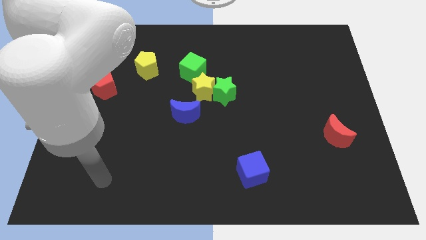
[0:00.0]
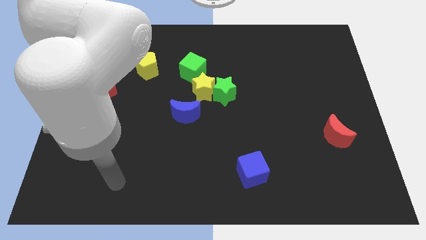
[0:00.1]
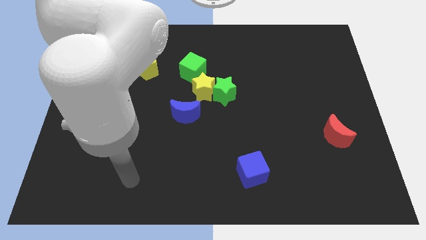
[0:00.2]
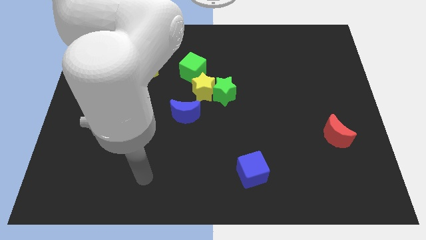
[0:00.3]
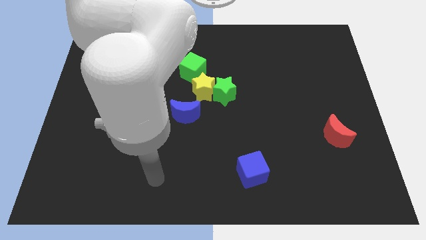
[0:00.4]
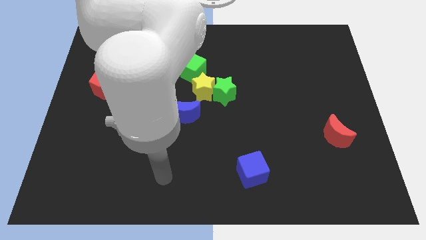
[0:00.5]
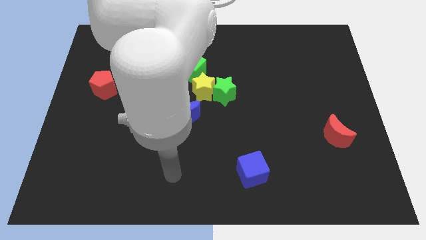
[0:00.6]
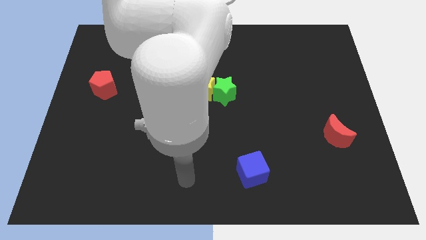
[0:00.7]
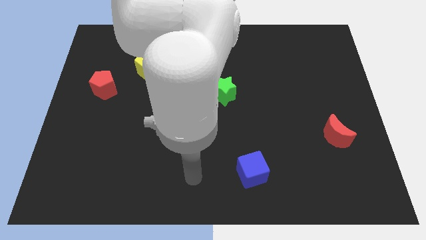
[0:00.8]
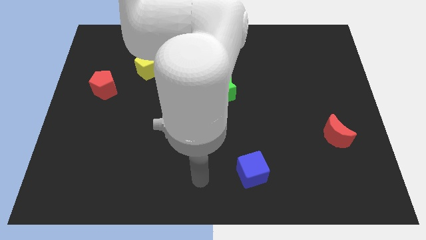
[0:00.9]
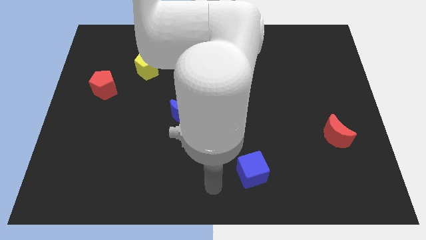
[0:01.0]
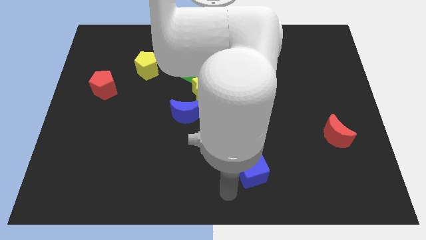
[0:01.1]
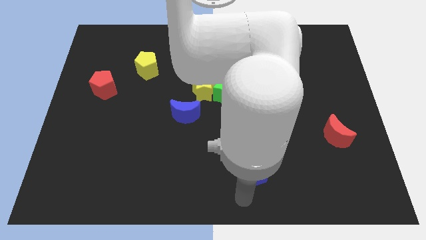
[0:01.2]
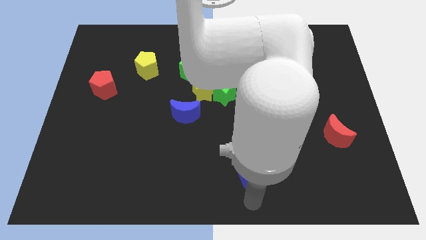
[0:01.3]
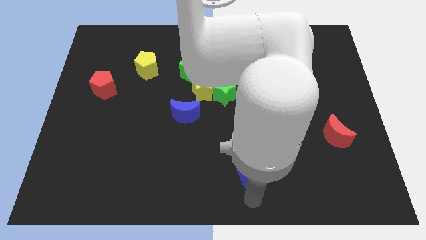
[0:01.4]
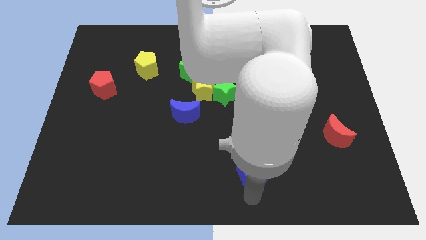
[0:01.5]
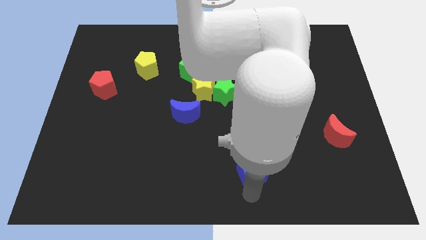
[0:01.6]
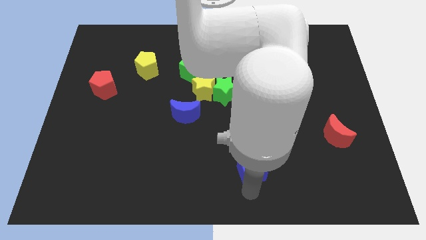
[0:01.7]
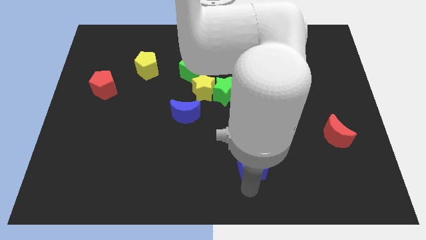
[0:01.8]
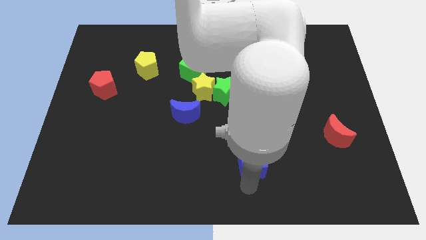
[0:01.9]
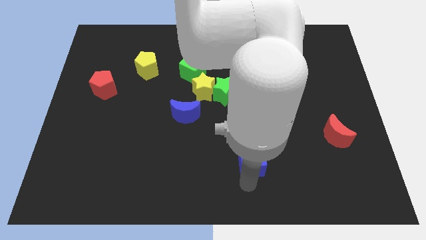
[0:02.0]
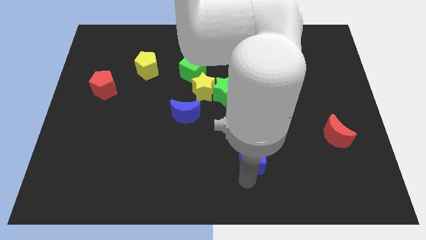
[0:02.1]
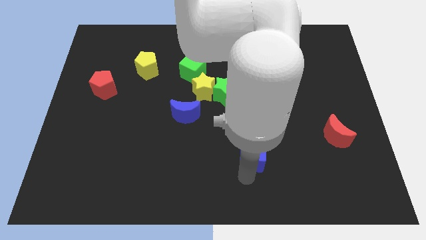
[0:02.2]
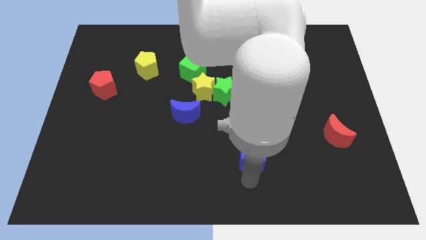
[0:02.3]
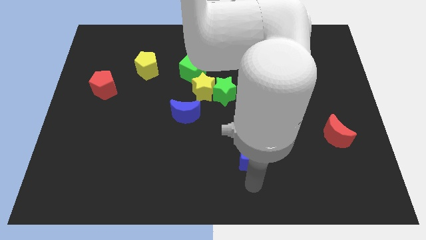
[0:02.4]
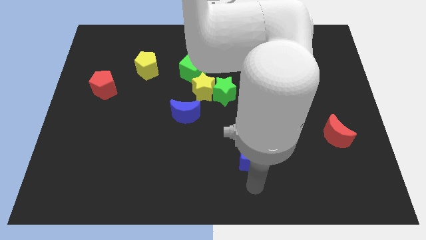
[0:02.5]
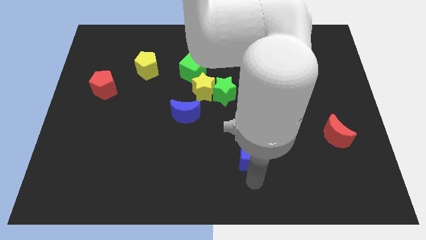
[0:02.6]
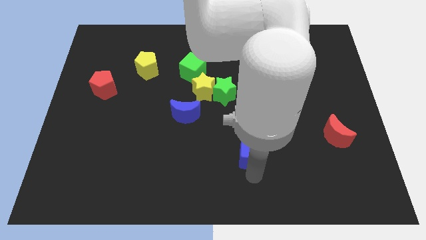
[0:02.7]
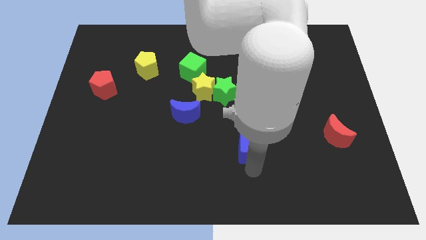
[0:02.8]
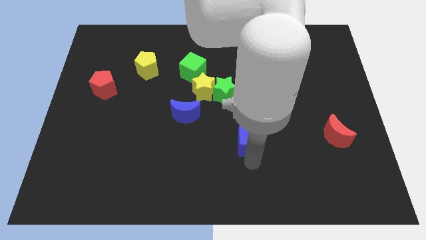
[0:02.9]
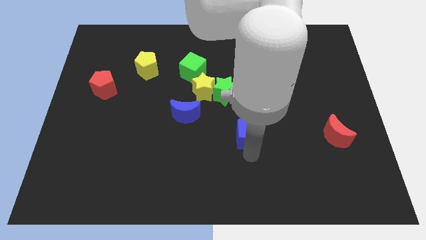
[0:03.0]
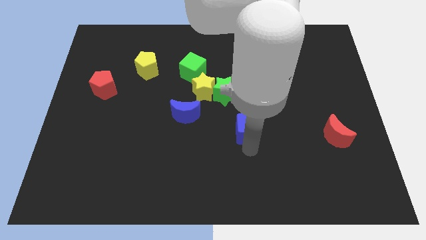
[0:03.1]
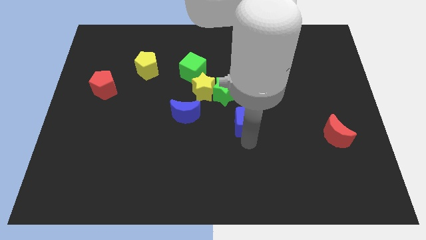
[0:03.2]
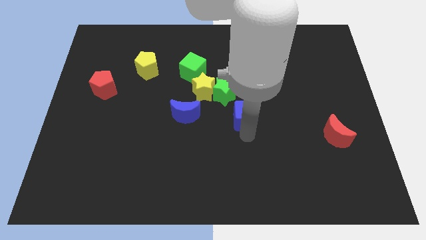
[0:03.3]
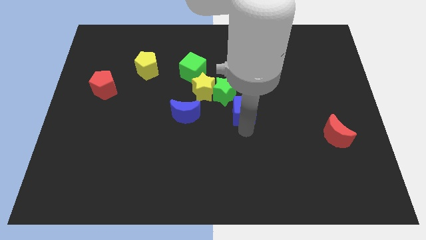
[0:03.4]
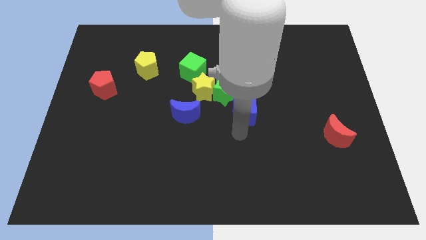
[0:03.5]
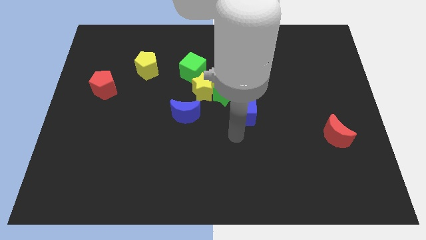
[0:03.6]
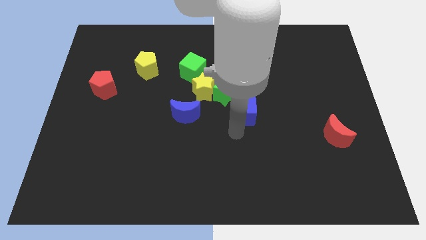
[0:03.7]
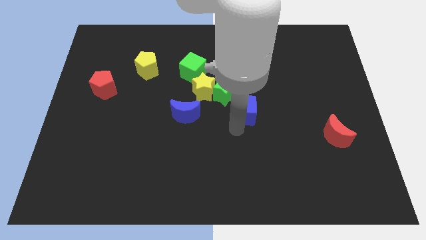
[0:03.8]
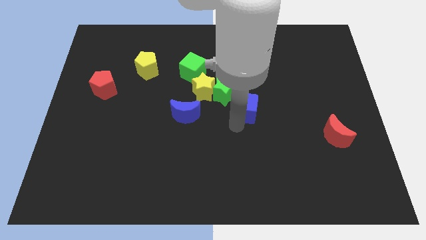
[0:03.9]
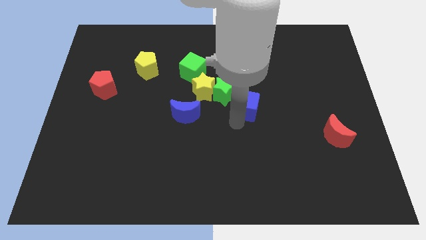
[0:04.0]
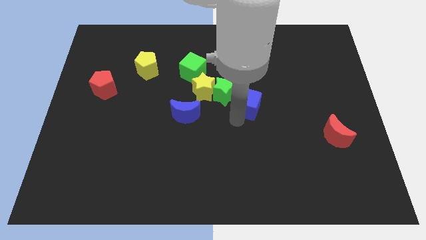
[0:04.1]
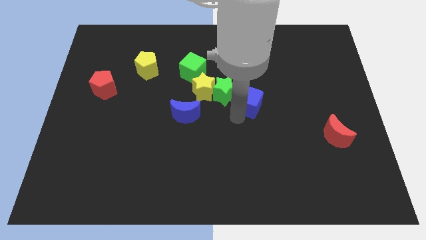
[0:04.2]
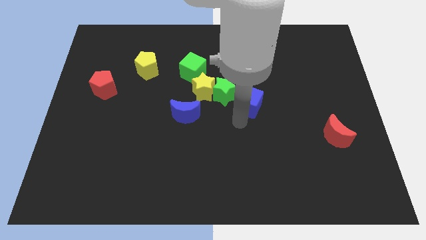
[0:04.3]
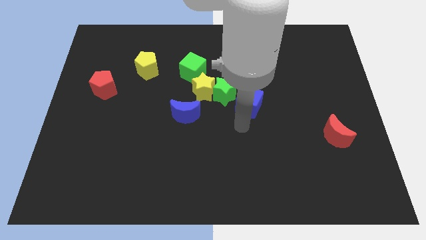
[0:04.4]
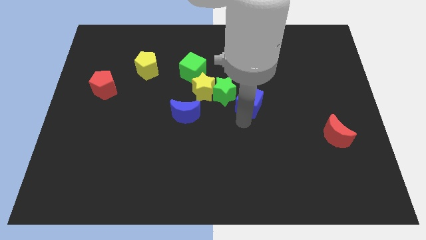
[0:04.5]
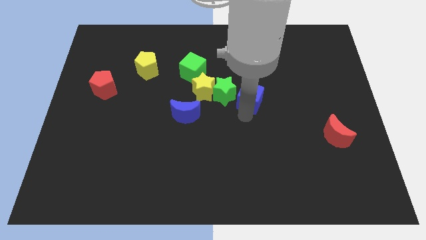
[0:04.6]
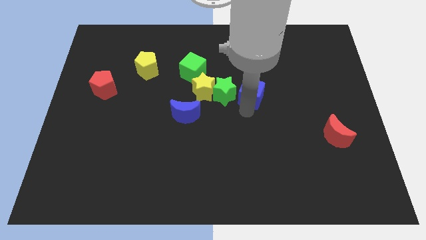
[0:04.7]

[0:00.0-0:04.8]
slide the blue cube upwards

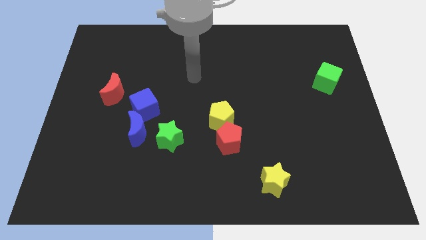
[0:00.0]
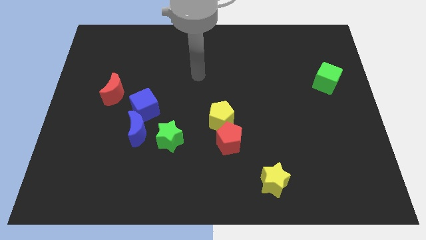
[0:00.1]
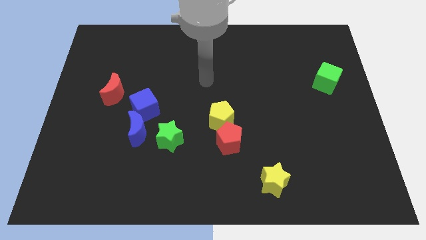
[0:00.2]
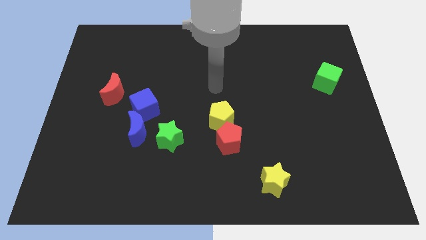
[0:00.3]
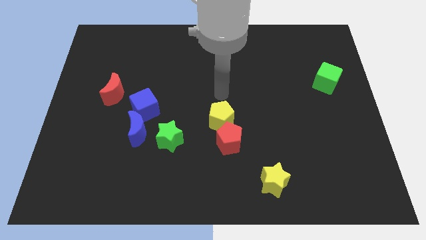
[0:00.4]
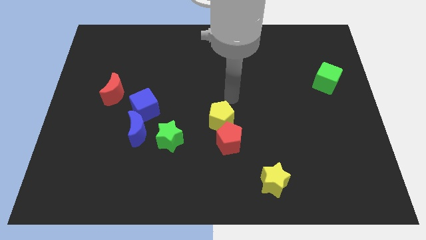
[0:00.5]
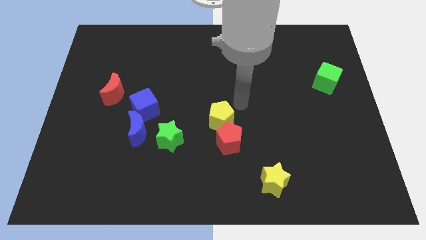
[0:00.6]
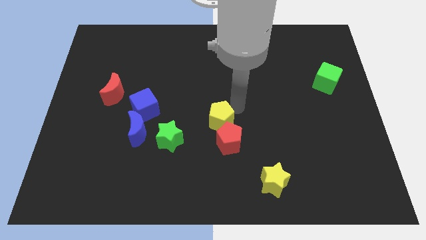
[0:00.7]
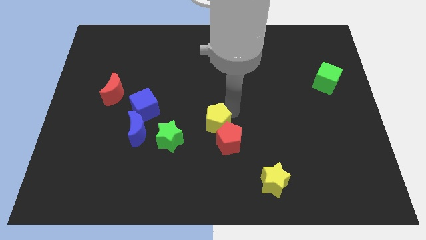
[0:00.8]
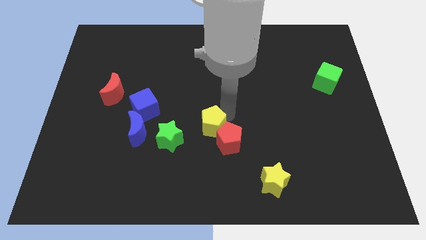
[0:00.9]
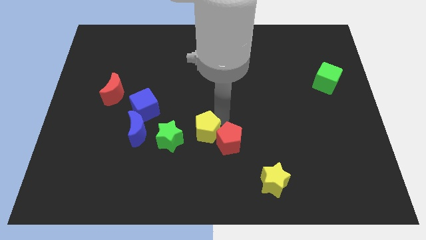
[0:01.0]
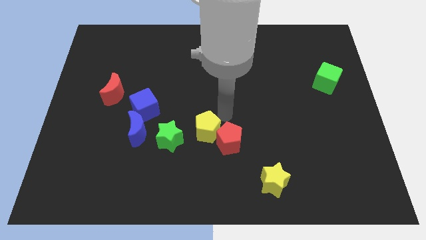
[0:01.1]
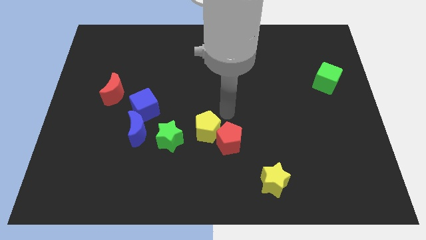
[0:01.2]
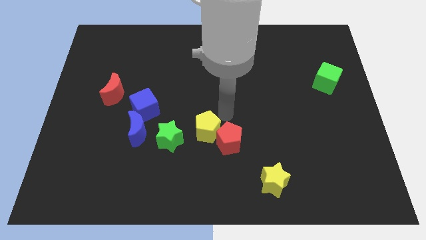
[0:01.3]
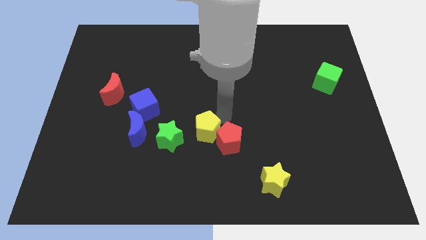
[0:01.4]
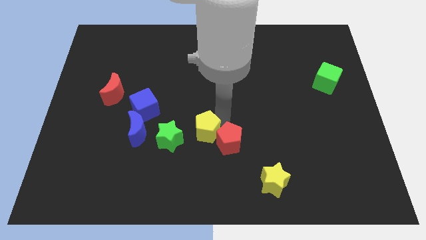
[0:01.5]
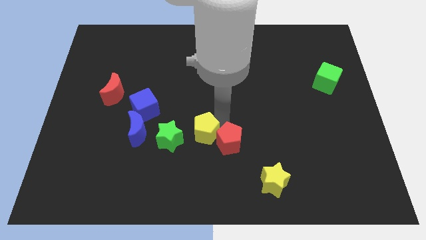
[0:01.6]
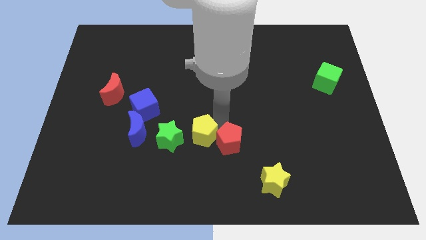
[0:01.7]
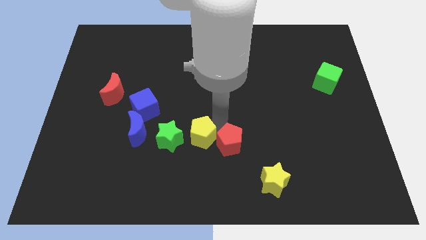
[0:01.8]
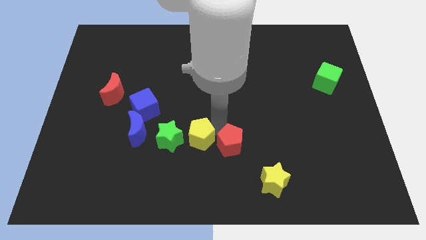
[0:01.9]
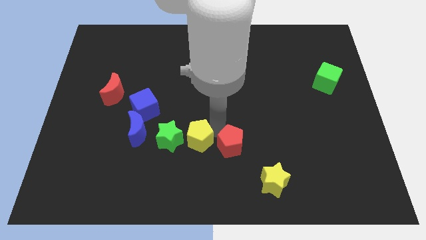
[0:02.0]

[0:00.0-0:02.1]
slide the yellow pentagon a bit diagonally down and to the left

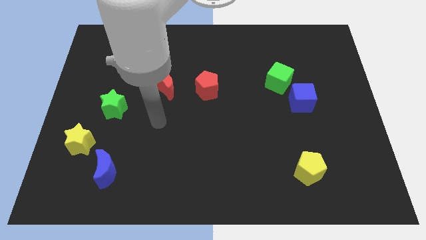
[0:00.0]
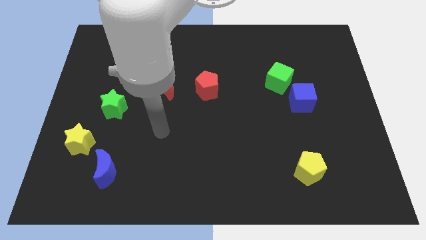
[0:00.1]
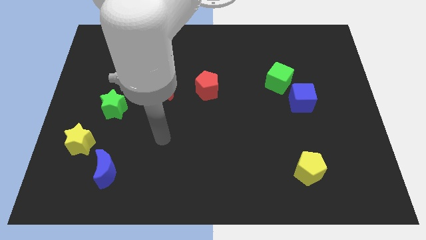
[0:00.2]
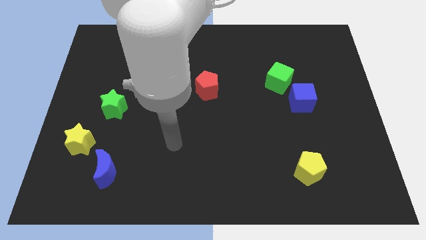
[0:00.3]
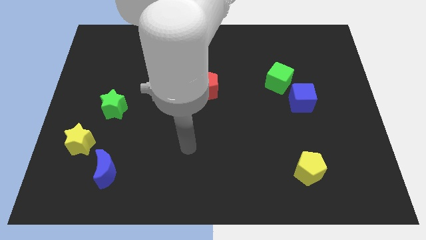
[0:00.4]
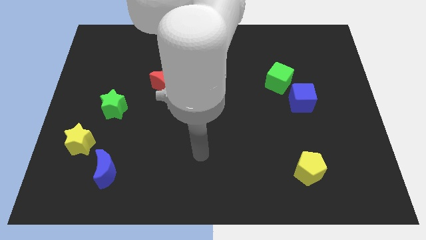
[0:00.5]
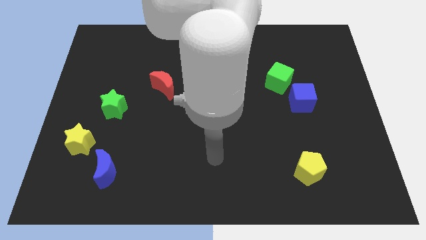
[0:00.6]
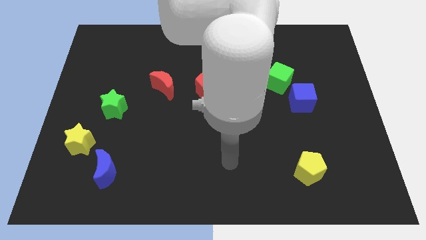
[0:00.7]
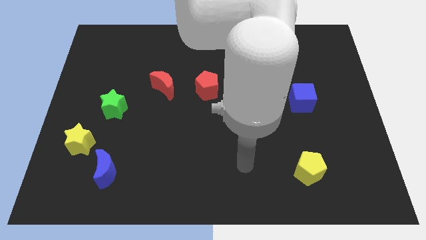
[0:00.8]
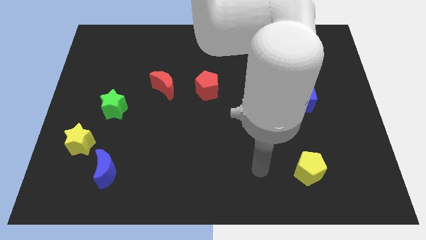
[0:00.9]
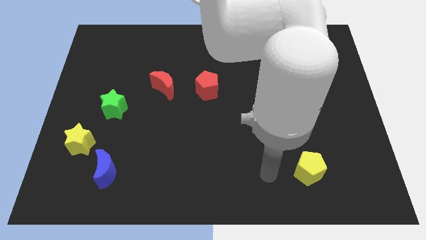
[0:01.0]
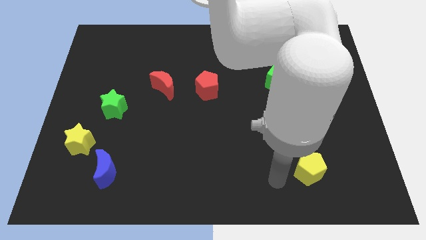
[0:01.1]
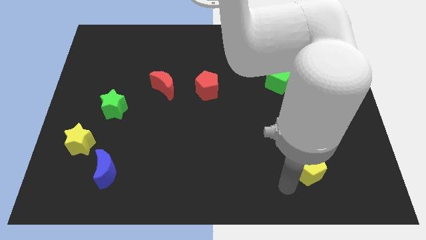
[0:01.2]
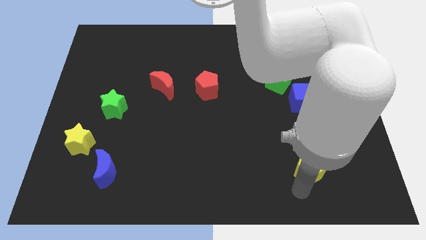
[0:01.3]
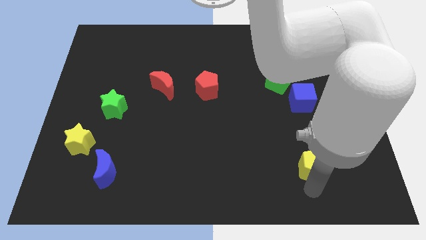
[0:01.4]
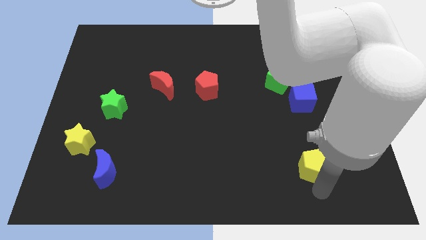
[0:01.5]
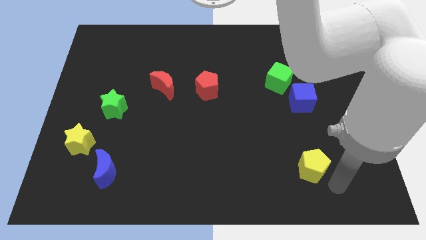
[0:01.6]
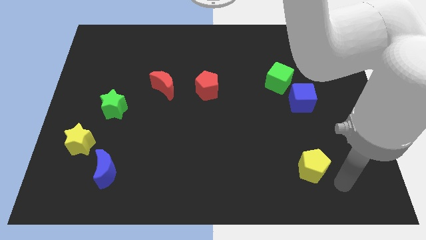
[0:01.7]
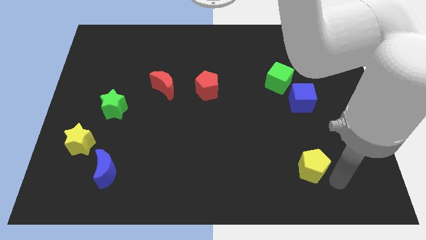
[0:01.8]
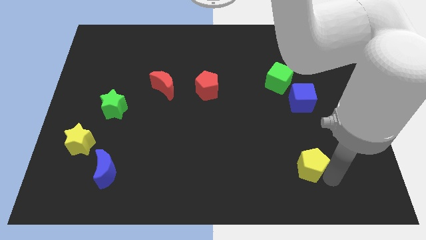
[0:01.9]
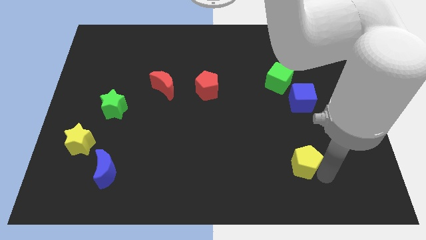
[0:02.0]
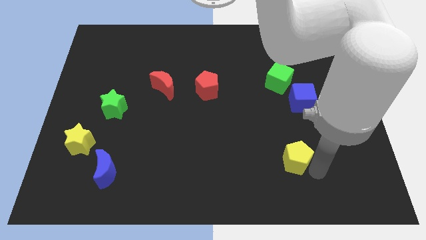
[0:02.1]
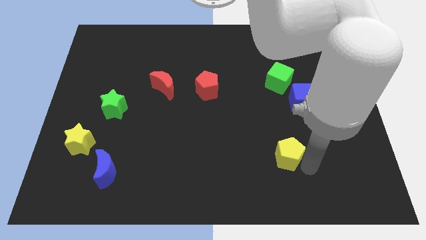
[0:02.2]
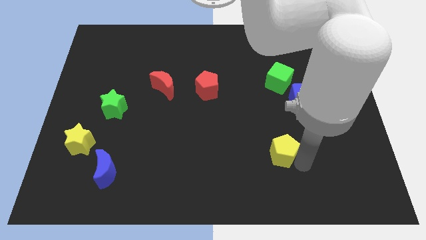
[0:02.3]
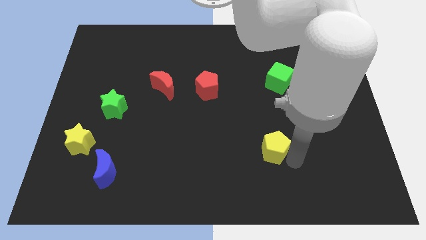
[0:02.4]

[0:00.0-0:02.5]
move the yellow pentagon a little bit diagonally upwards and to the left
